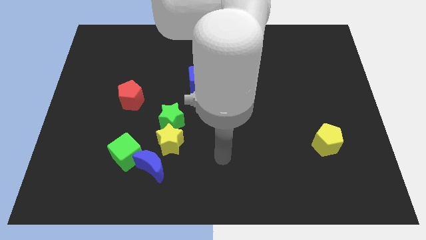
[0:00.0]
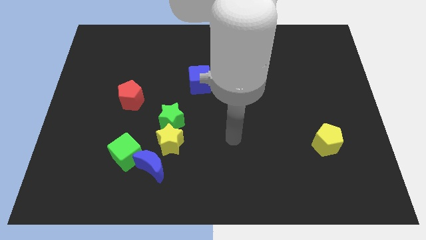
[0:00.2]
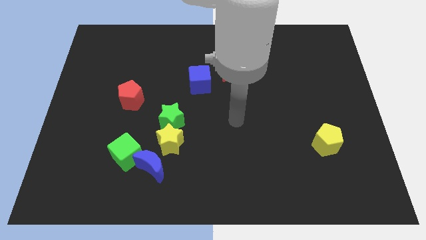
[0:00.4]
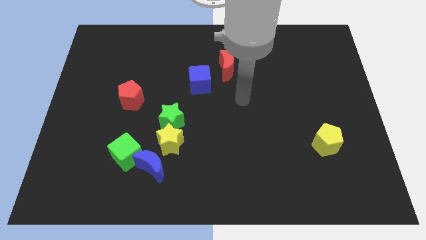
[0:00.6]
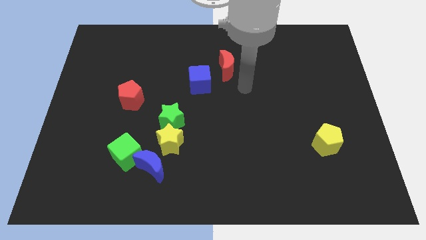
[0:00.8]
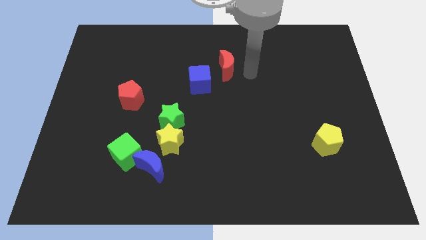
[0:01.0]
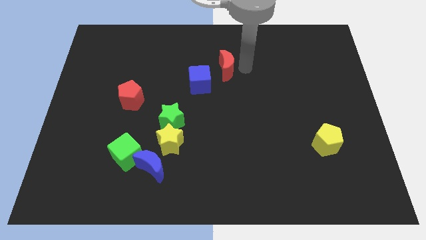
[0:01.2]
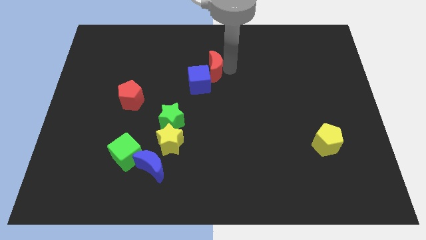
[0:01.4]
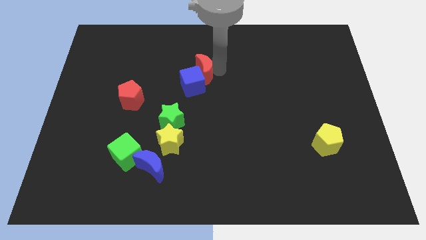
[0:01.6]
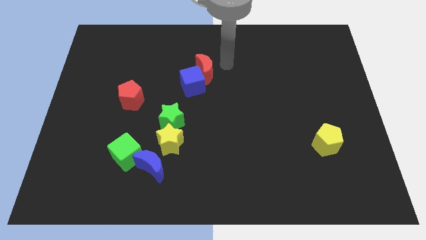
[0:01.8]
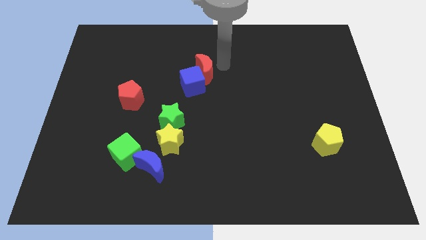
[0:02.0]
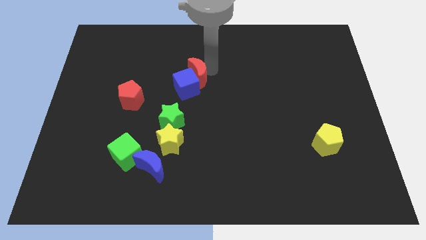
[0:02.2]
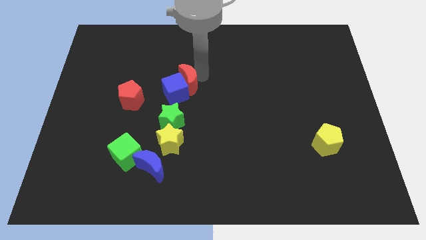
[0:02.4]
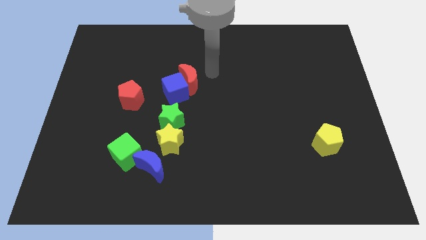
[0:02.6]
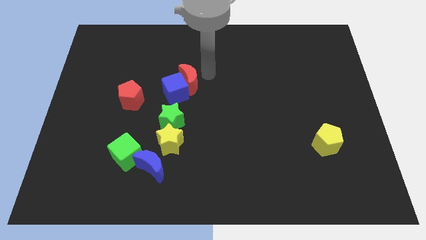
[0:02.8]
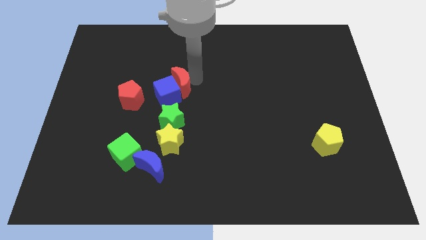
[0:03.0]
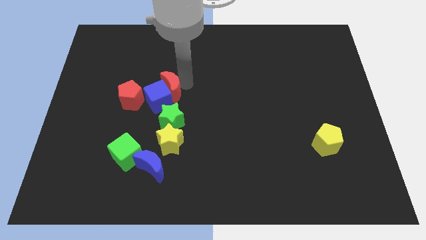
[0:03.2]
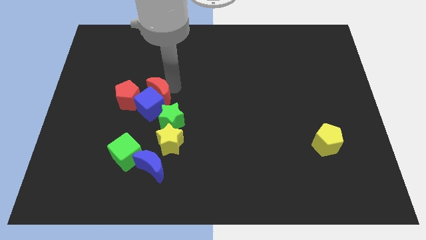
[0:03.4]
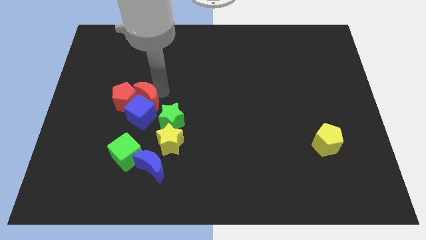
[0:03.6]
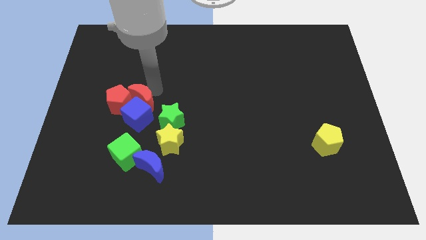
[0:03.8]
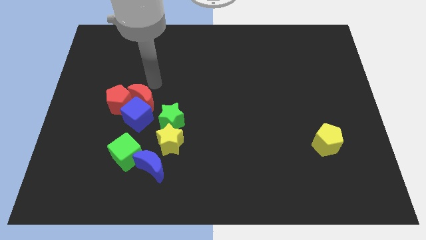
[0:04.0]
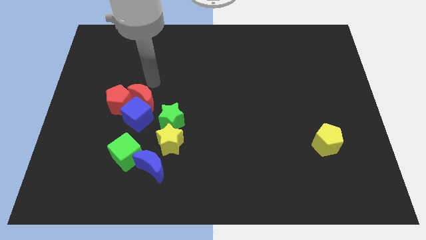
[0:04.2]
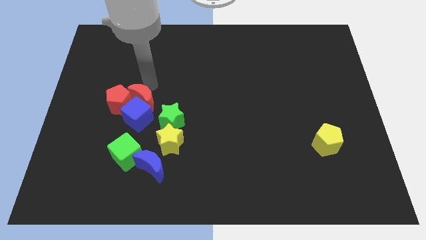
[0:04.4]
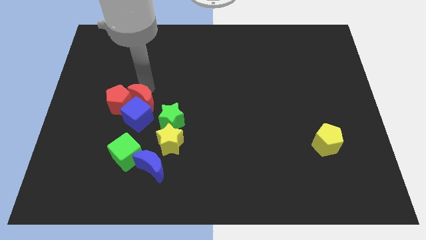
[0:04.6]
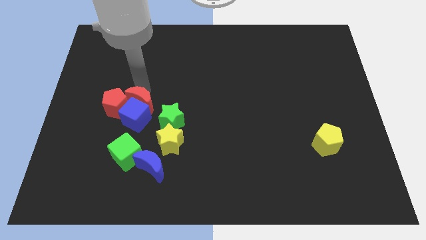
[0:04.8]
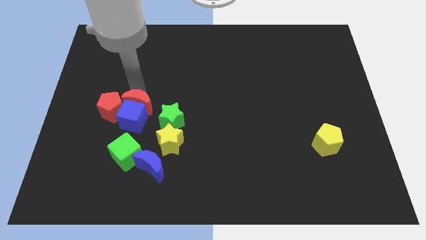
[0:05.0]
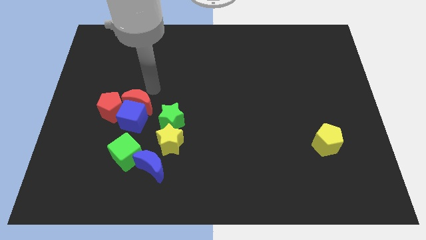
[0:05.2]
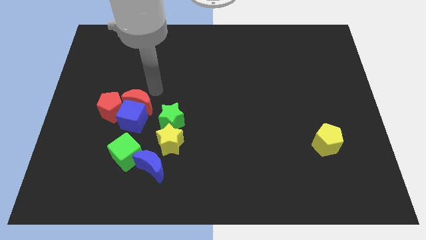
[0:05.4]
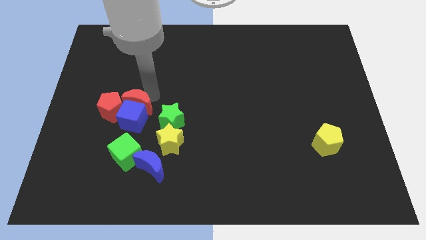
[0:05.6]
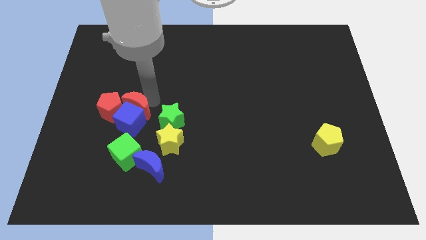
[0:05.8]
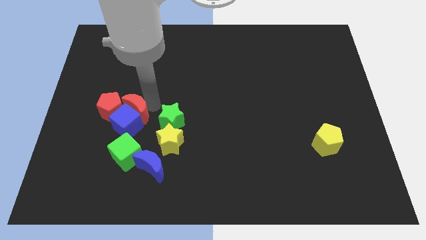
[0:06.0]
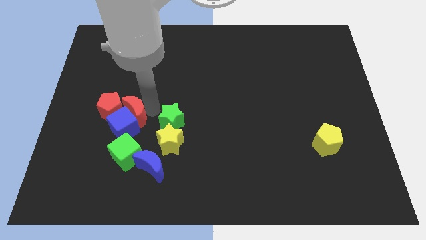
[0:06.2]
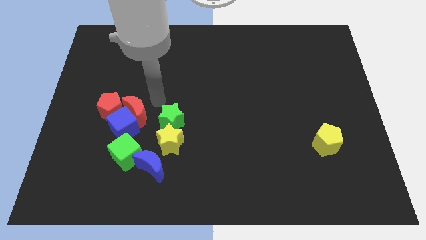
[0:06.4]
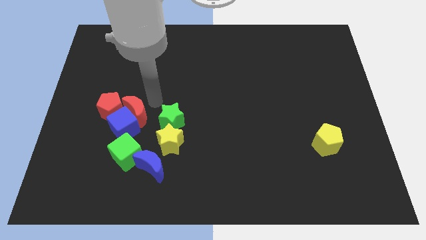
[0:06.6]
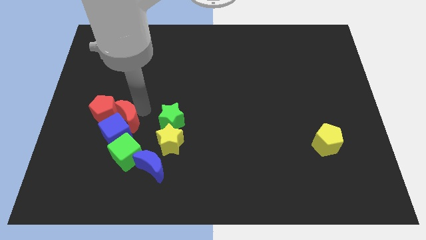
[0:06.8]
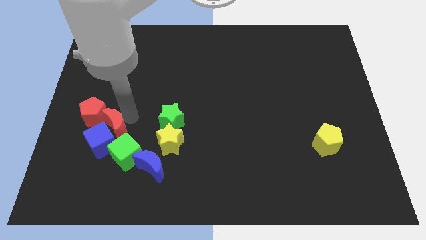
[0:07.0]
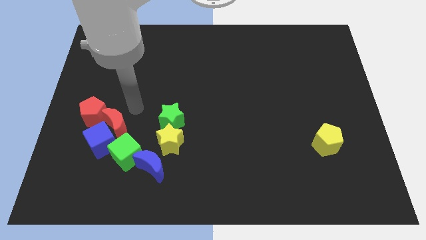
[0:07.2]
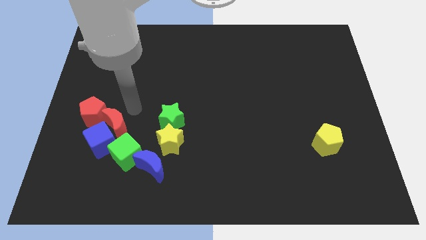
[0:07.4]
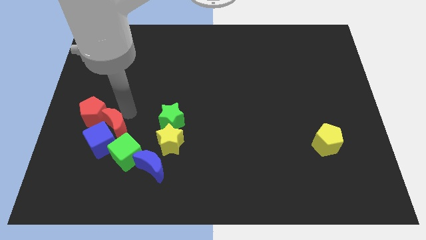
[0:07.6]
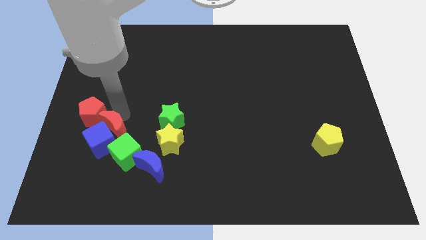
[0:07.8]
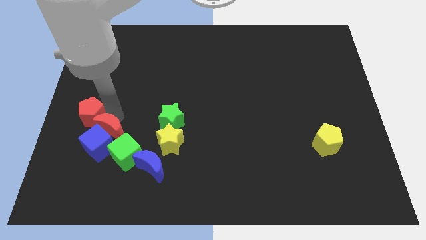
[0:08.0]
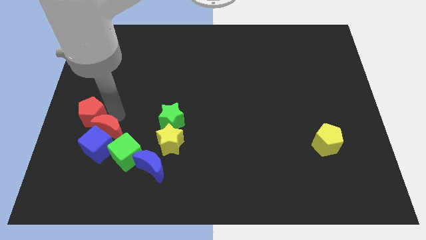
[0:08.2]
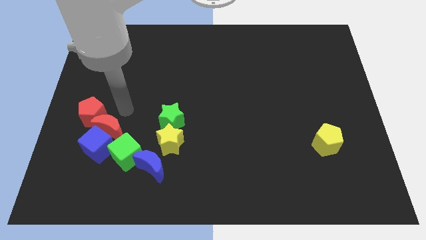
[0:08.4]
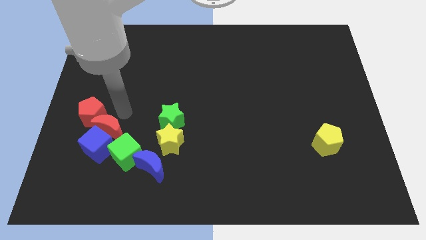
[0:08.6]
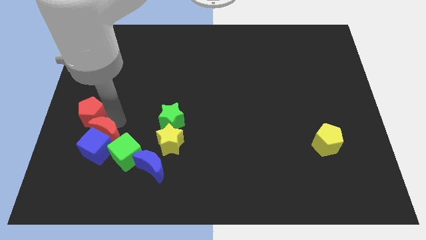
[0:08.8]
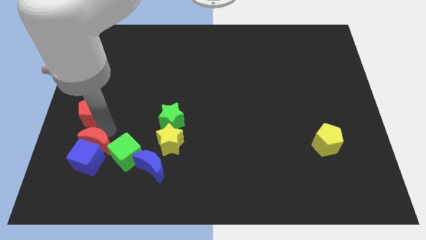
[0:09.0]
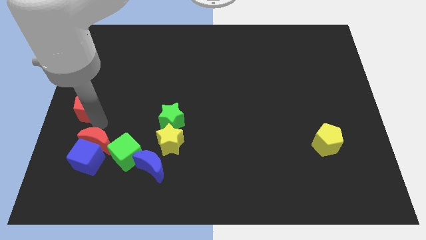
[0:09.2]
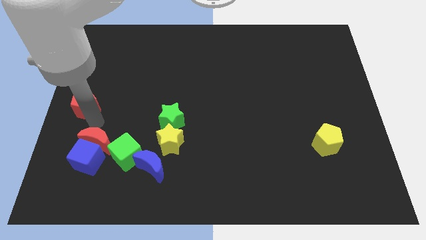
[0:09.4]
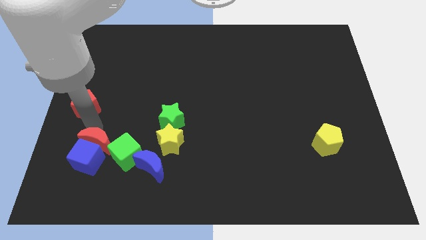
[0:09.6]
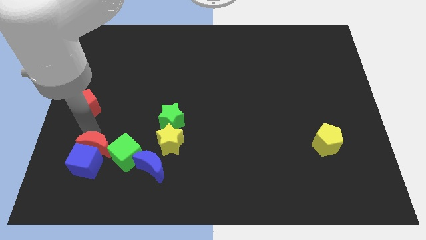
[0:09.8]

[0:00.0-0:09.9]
put the red moon left of the blue moon

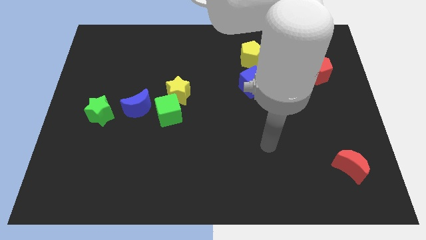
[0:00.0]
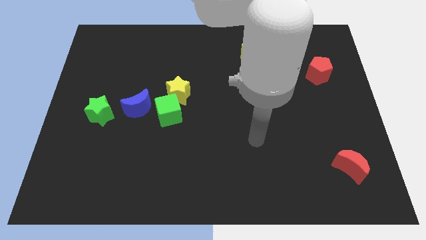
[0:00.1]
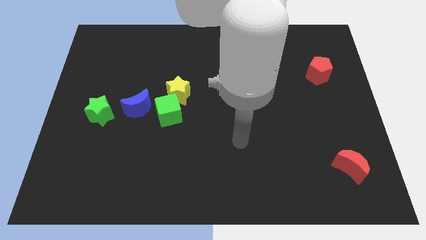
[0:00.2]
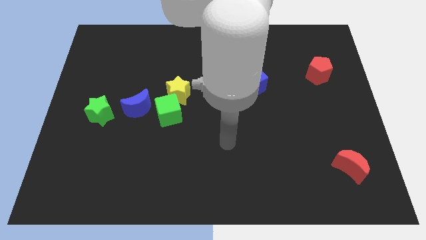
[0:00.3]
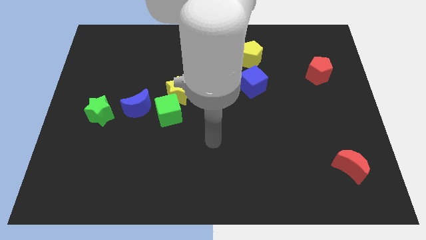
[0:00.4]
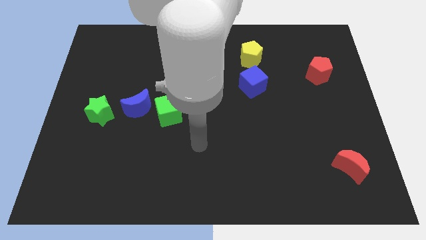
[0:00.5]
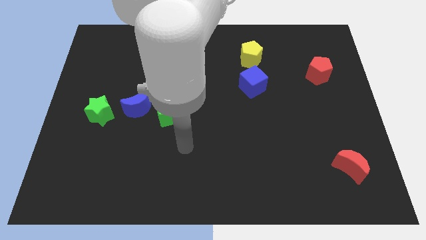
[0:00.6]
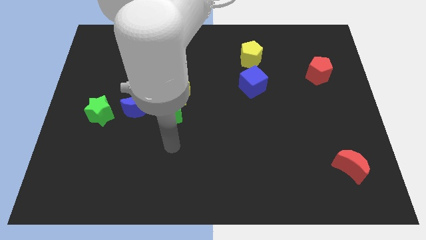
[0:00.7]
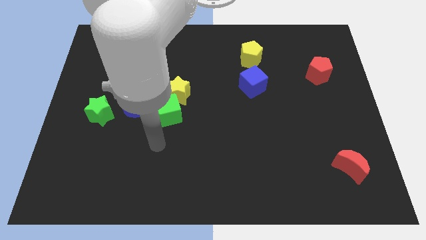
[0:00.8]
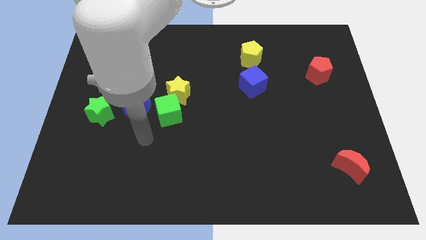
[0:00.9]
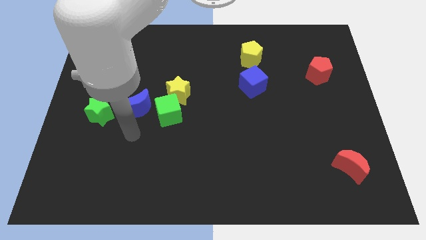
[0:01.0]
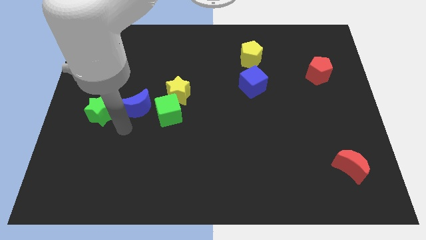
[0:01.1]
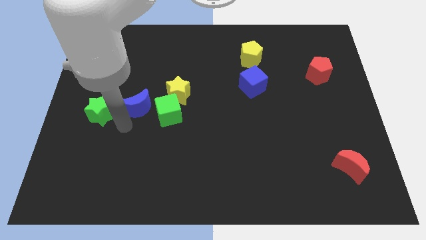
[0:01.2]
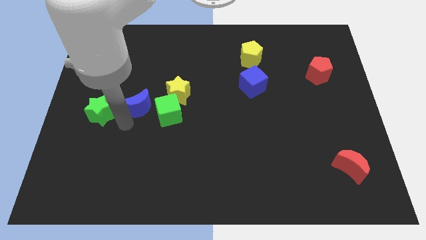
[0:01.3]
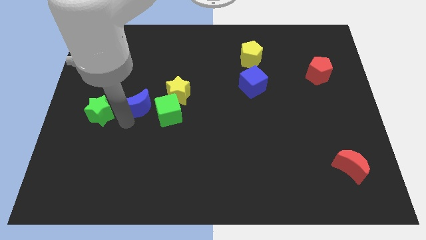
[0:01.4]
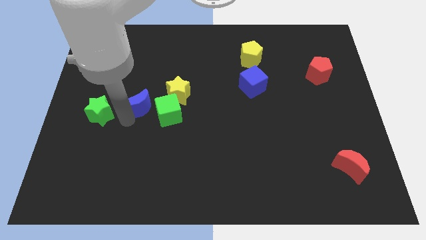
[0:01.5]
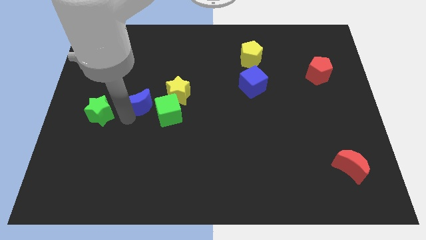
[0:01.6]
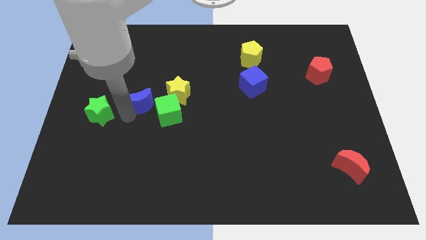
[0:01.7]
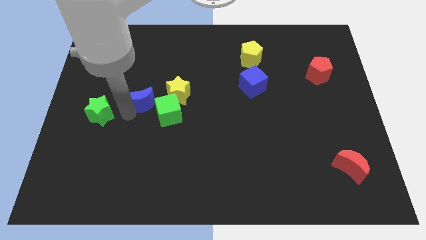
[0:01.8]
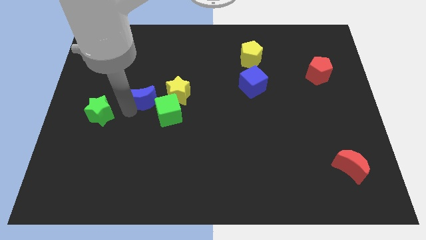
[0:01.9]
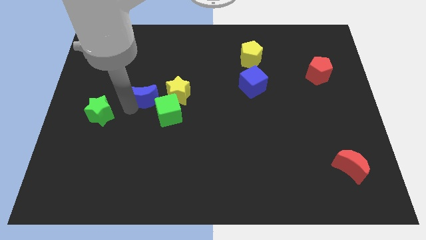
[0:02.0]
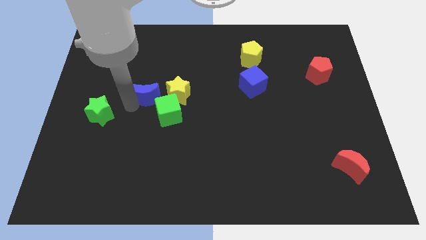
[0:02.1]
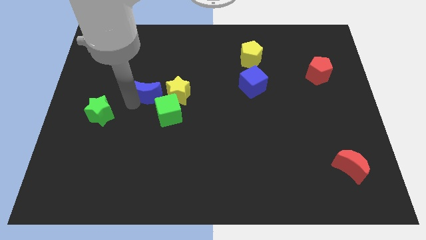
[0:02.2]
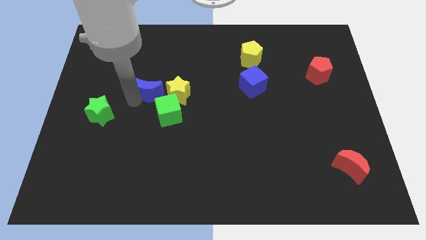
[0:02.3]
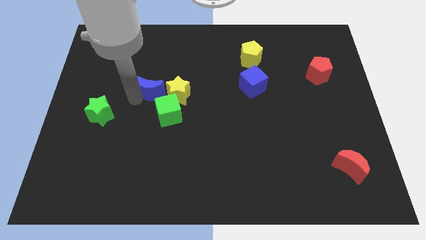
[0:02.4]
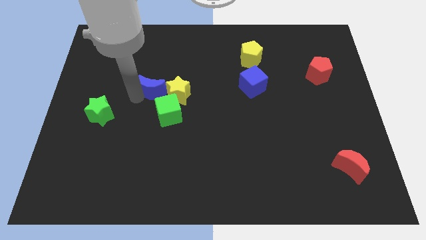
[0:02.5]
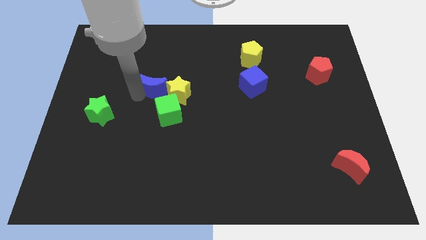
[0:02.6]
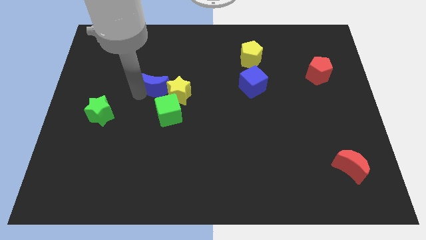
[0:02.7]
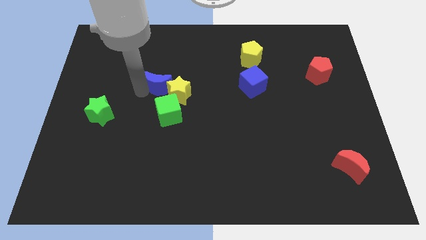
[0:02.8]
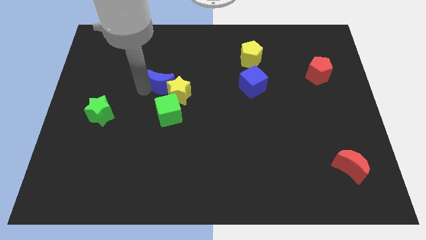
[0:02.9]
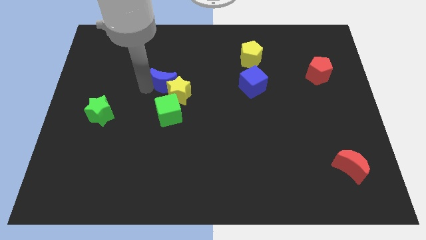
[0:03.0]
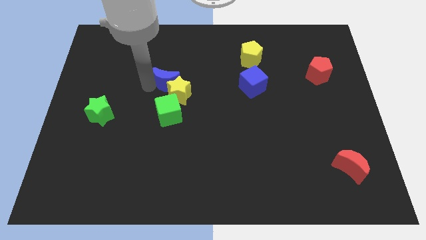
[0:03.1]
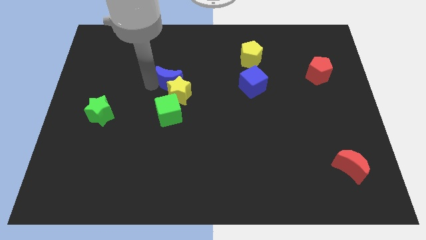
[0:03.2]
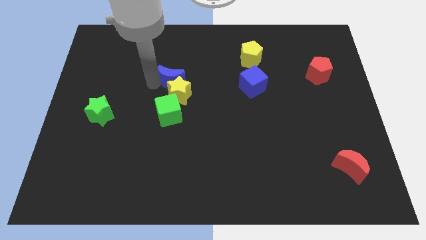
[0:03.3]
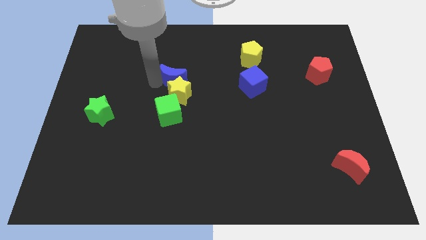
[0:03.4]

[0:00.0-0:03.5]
put the blue moon to the top right side of the yellow star
